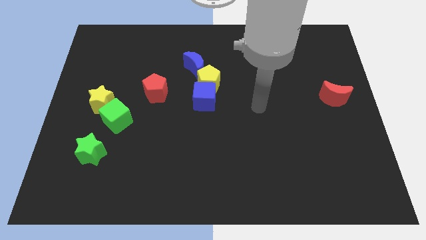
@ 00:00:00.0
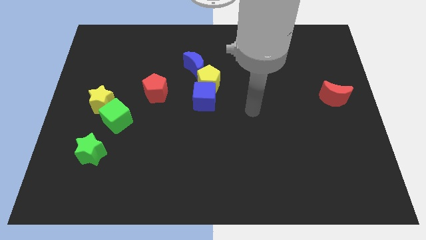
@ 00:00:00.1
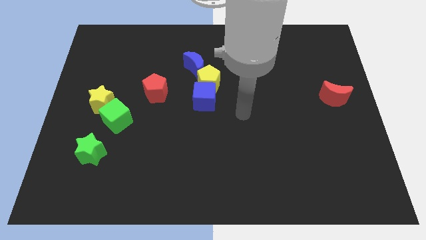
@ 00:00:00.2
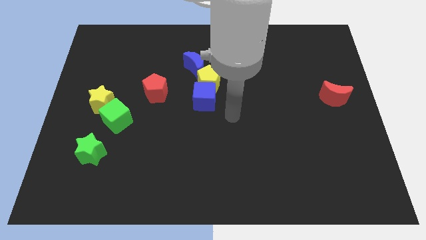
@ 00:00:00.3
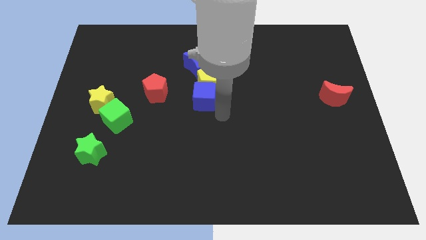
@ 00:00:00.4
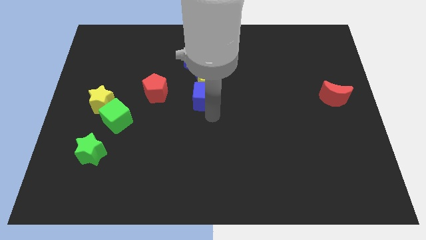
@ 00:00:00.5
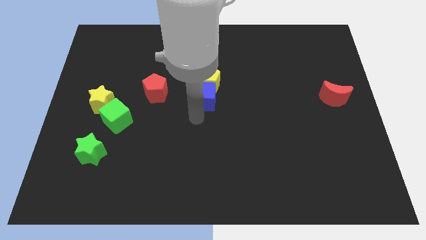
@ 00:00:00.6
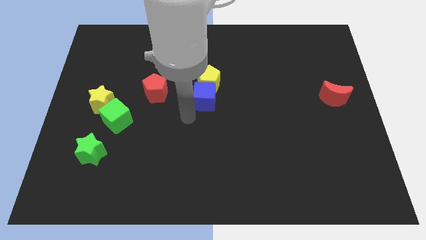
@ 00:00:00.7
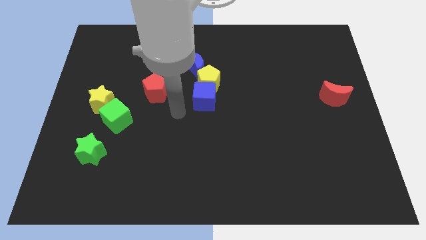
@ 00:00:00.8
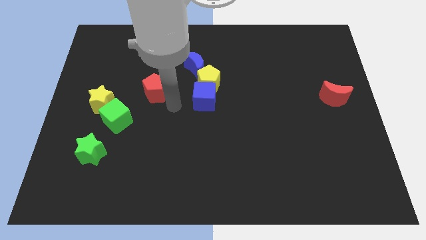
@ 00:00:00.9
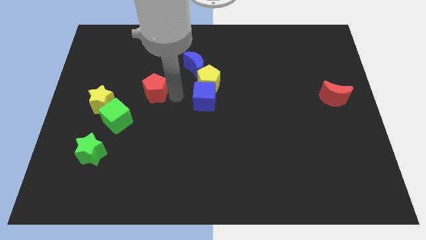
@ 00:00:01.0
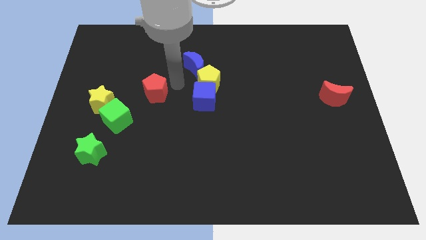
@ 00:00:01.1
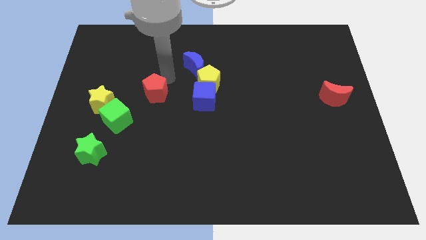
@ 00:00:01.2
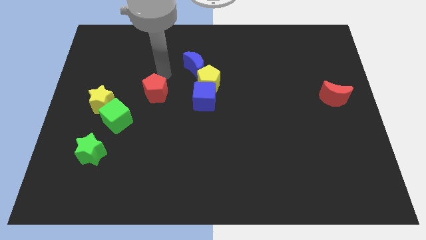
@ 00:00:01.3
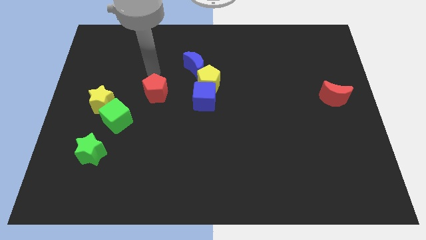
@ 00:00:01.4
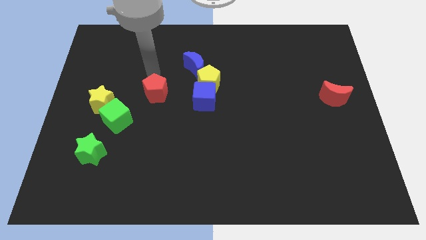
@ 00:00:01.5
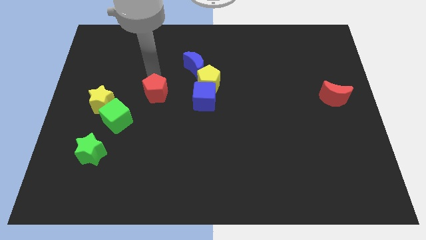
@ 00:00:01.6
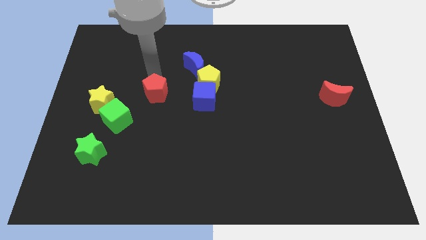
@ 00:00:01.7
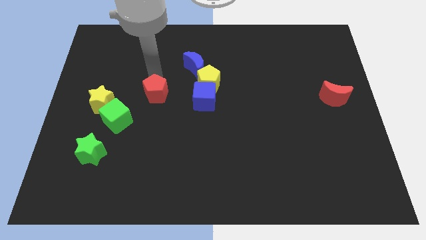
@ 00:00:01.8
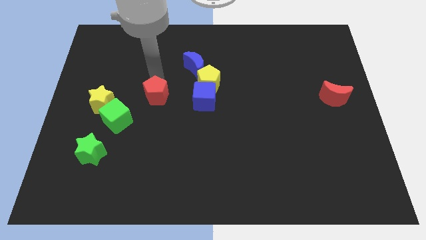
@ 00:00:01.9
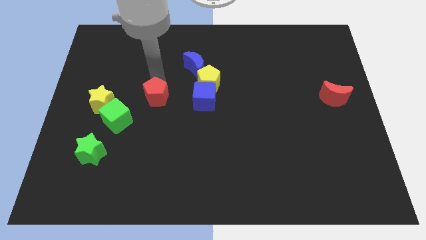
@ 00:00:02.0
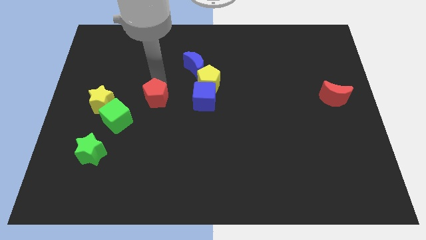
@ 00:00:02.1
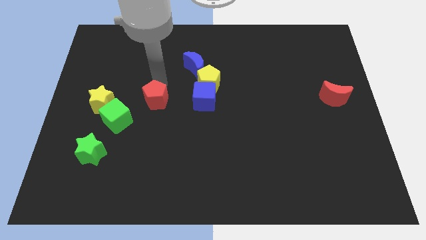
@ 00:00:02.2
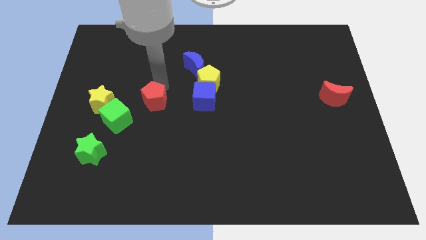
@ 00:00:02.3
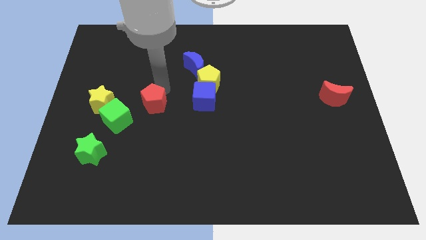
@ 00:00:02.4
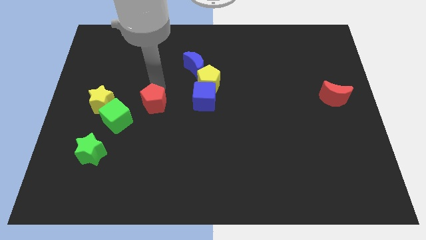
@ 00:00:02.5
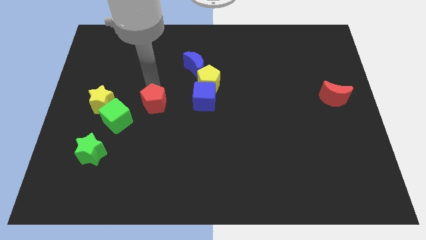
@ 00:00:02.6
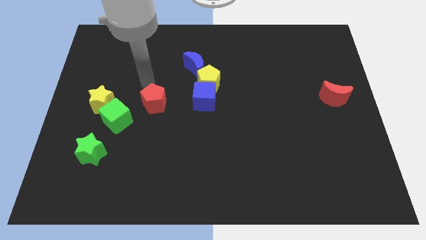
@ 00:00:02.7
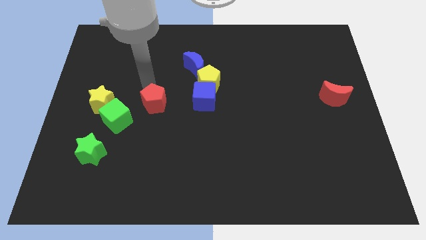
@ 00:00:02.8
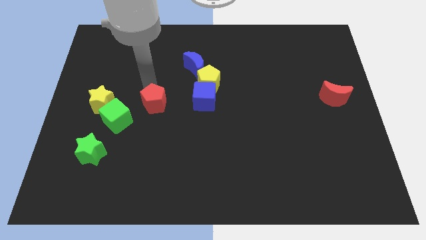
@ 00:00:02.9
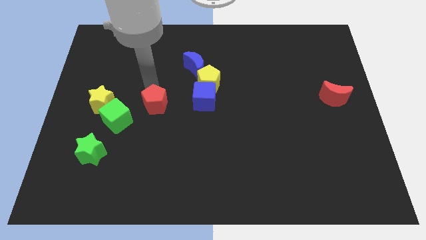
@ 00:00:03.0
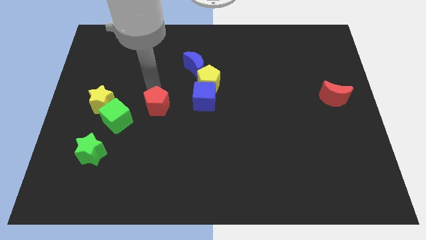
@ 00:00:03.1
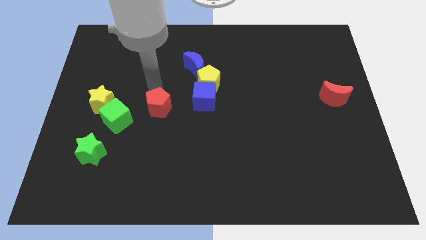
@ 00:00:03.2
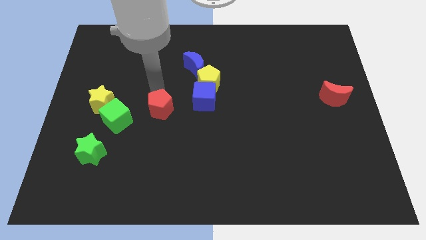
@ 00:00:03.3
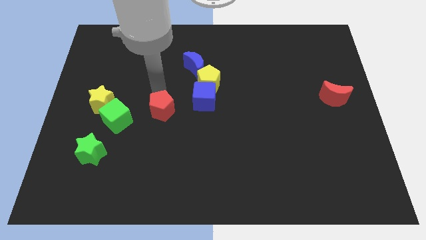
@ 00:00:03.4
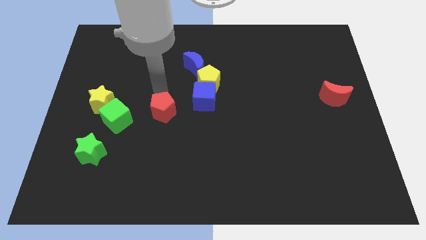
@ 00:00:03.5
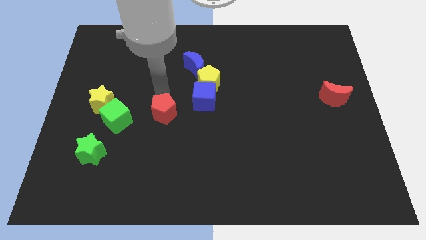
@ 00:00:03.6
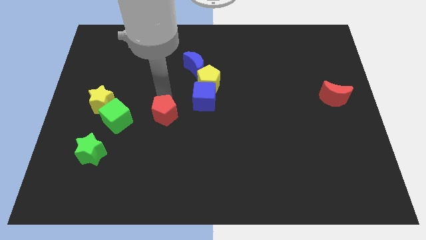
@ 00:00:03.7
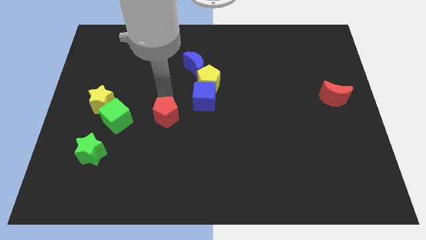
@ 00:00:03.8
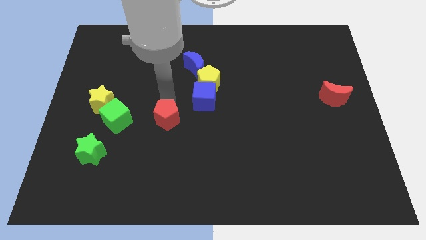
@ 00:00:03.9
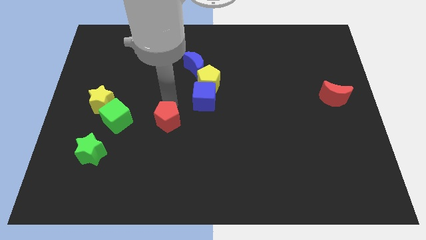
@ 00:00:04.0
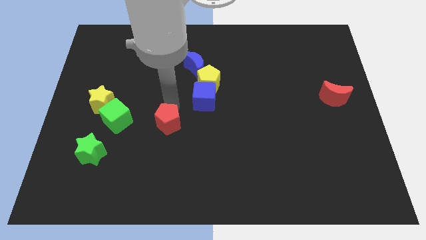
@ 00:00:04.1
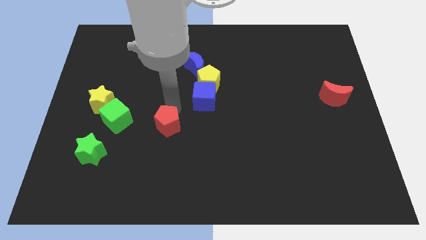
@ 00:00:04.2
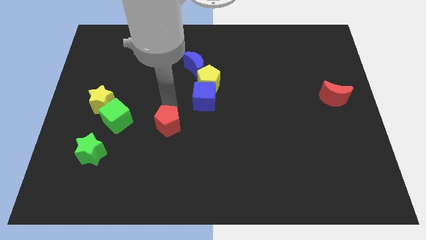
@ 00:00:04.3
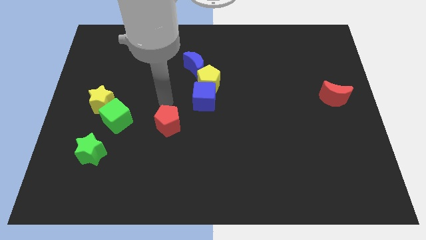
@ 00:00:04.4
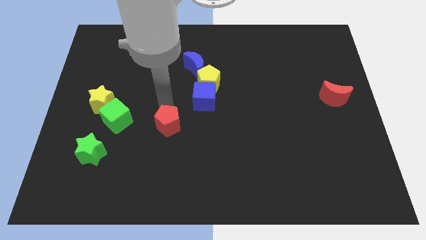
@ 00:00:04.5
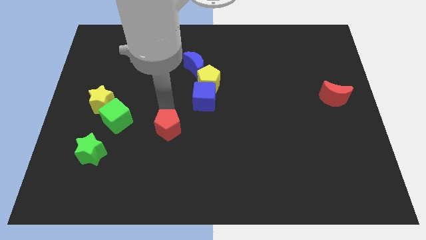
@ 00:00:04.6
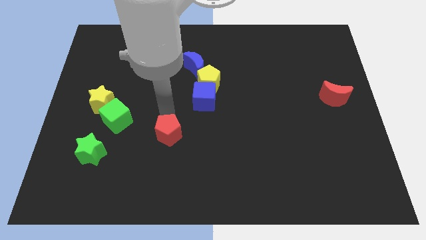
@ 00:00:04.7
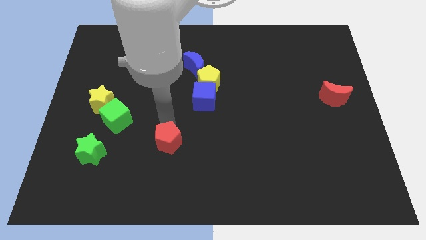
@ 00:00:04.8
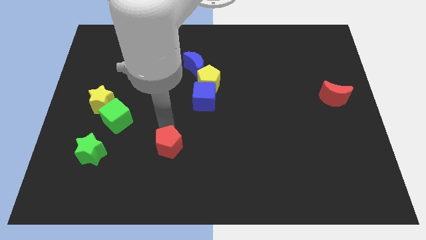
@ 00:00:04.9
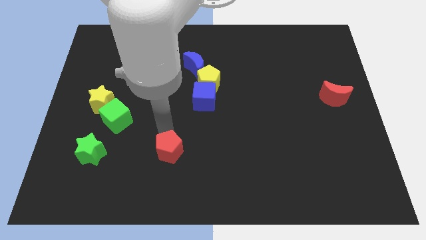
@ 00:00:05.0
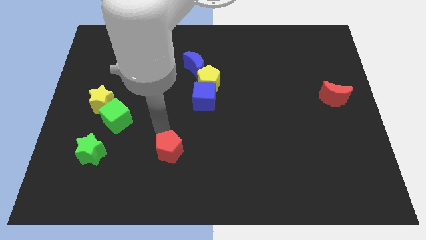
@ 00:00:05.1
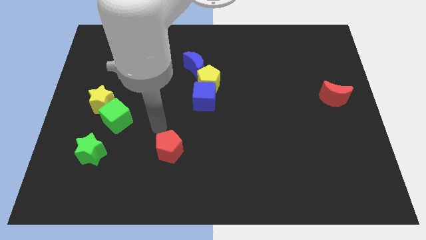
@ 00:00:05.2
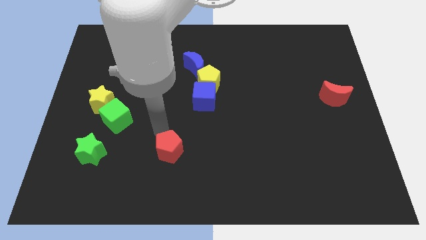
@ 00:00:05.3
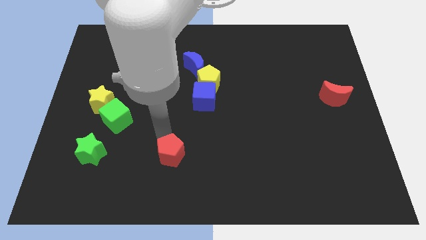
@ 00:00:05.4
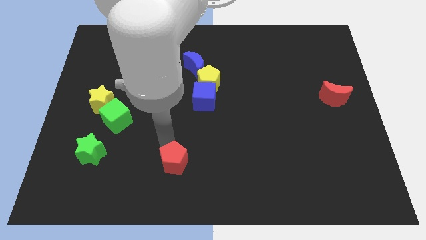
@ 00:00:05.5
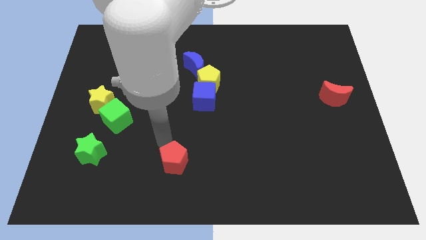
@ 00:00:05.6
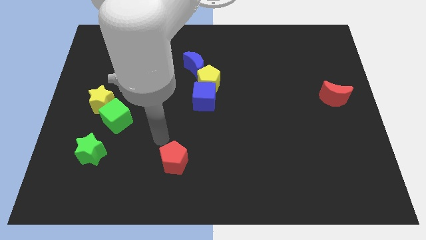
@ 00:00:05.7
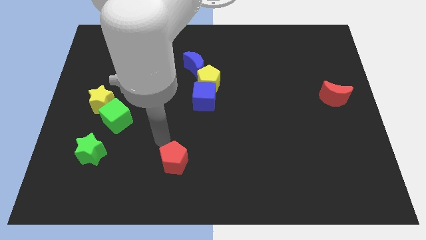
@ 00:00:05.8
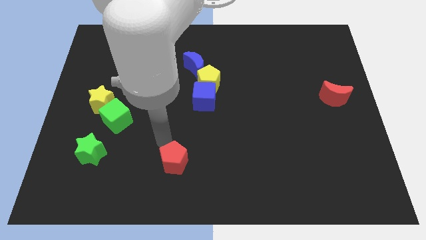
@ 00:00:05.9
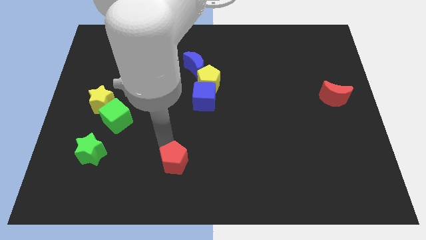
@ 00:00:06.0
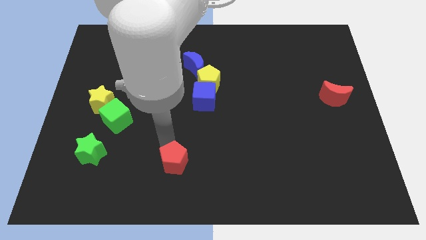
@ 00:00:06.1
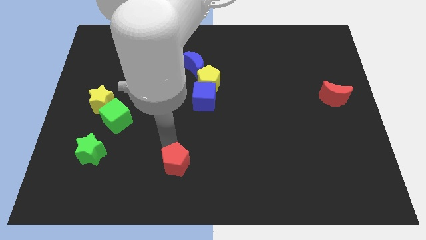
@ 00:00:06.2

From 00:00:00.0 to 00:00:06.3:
slide the red pentagon to the bottom side

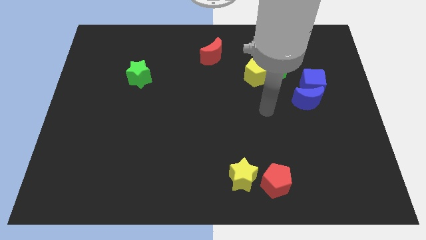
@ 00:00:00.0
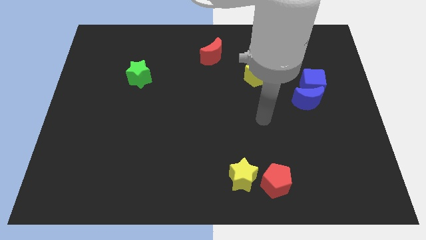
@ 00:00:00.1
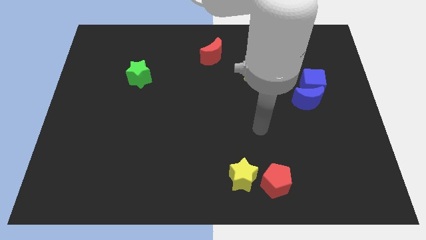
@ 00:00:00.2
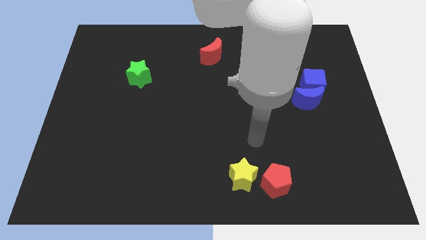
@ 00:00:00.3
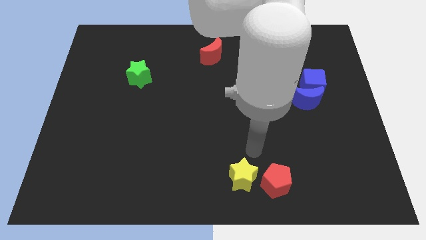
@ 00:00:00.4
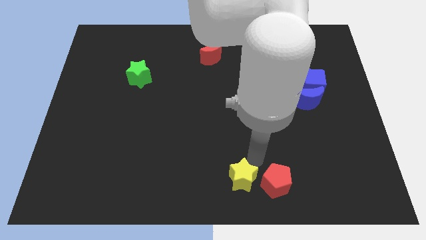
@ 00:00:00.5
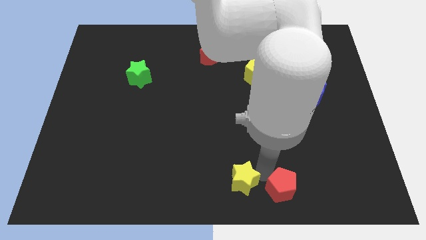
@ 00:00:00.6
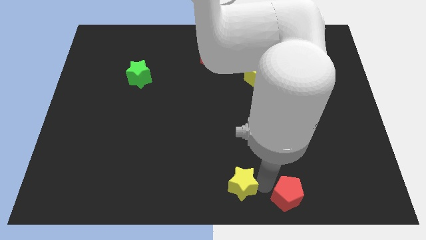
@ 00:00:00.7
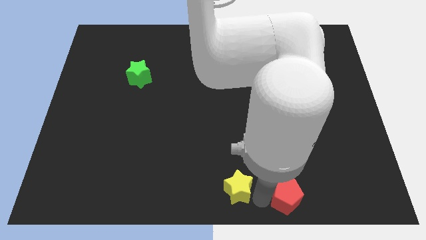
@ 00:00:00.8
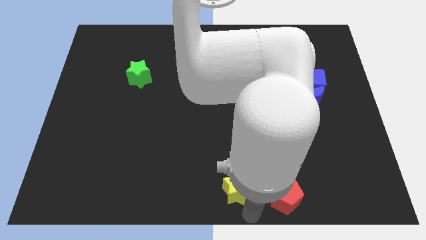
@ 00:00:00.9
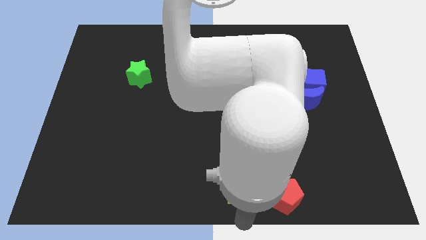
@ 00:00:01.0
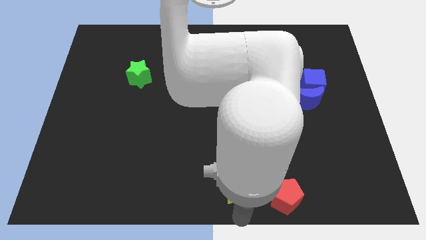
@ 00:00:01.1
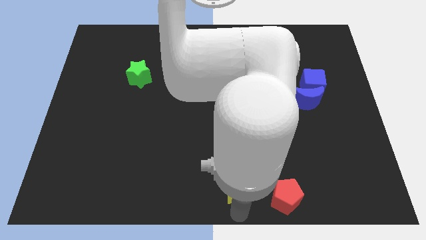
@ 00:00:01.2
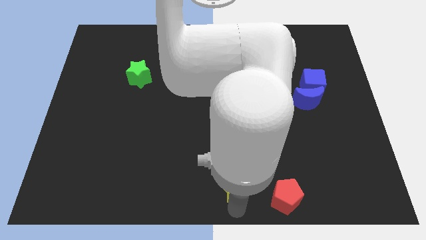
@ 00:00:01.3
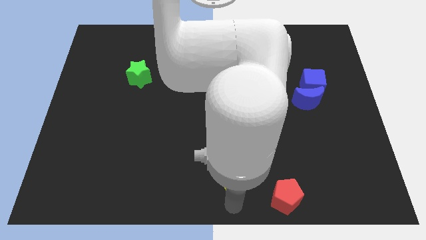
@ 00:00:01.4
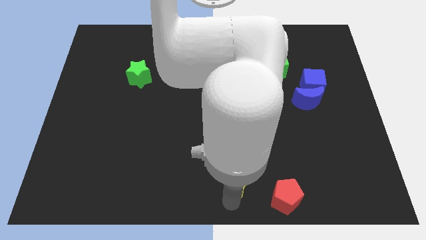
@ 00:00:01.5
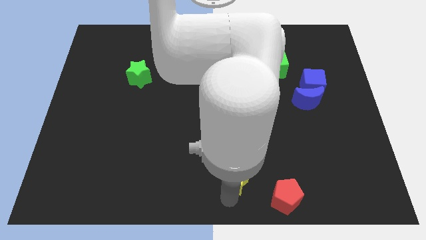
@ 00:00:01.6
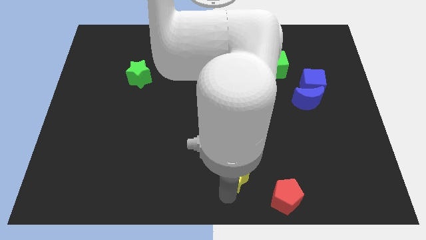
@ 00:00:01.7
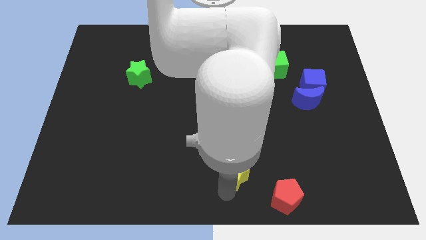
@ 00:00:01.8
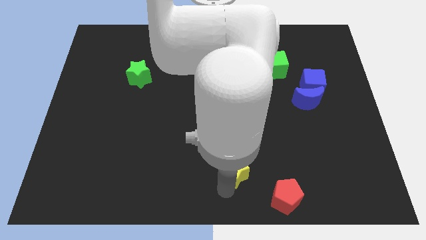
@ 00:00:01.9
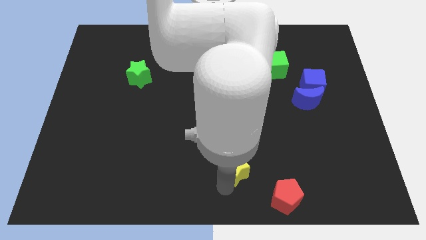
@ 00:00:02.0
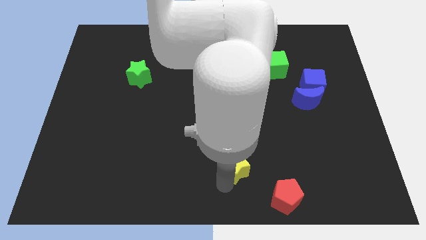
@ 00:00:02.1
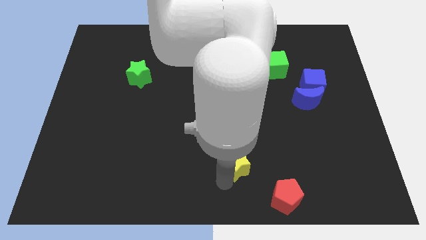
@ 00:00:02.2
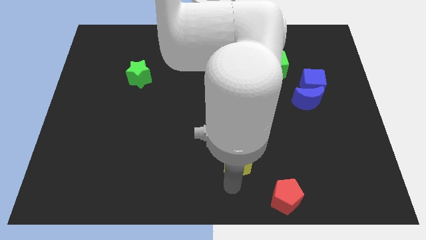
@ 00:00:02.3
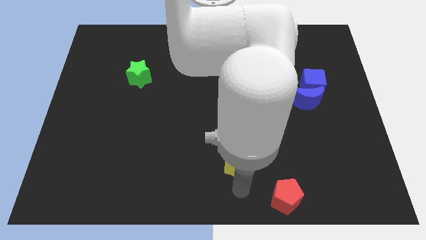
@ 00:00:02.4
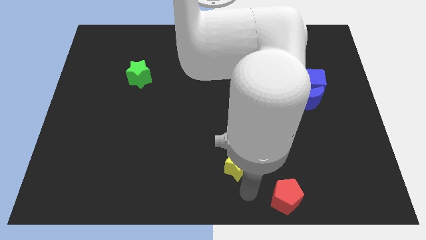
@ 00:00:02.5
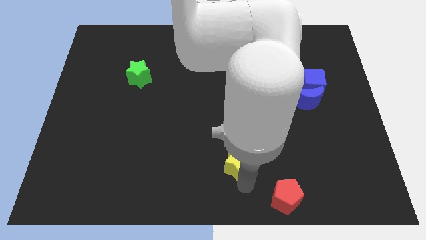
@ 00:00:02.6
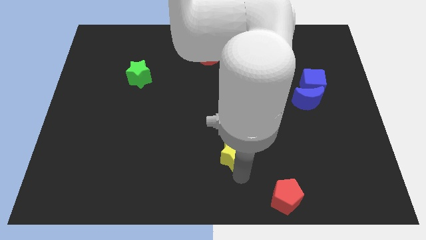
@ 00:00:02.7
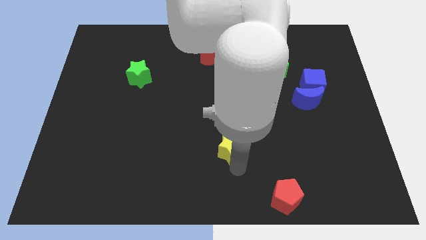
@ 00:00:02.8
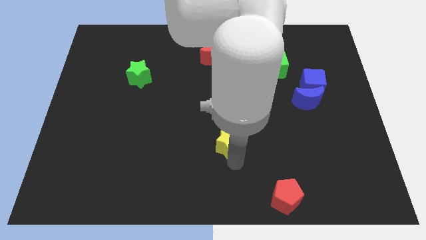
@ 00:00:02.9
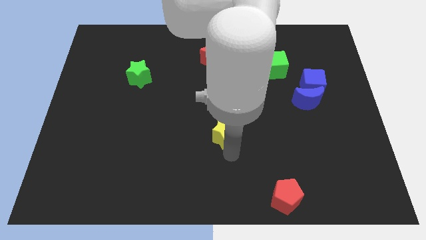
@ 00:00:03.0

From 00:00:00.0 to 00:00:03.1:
push the yellow star to the center
